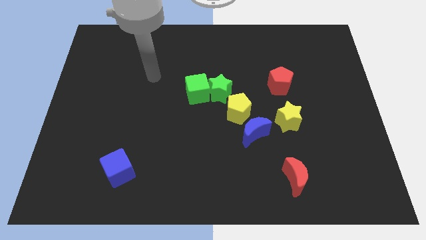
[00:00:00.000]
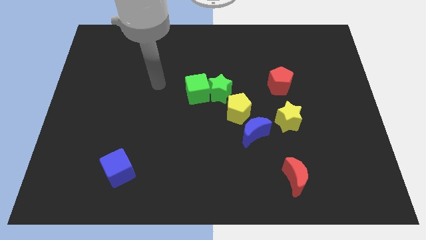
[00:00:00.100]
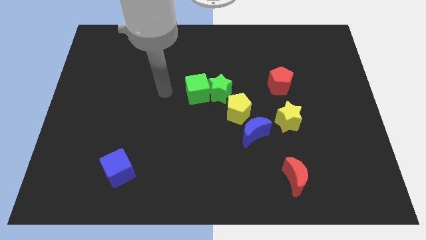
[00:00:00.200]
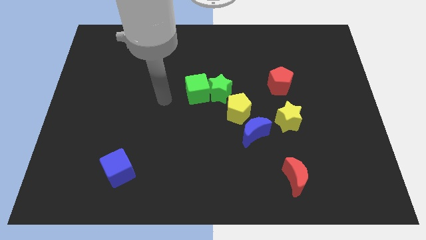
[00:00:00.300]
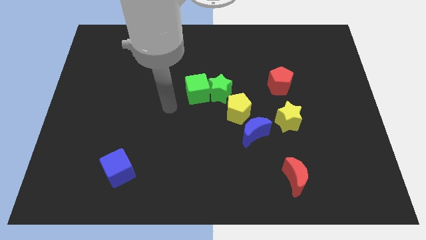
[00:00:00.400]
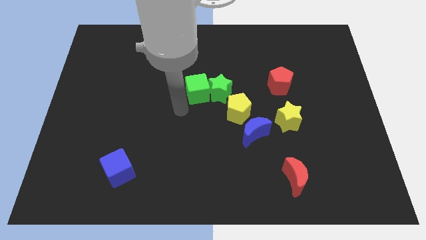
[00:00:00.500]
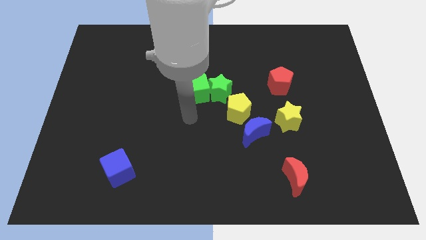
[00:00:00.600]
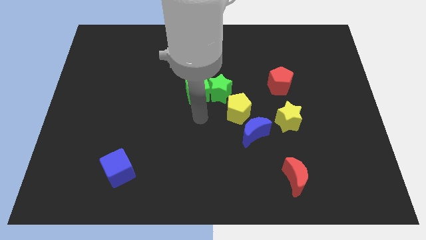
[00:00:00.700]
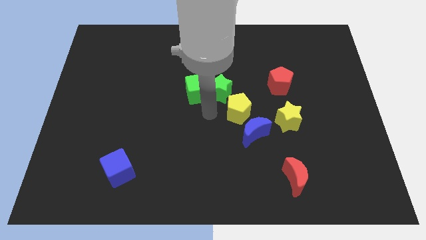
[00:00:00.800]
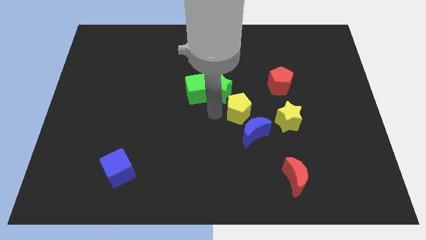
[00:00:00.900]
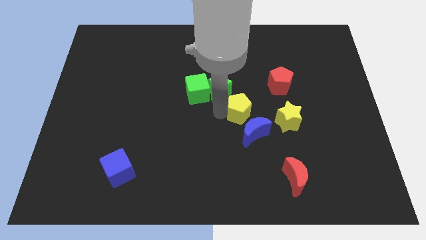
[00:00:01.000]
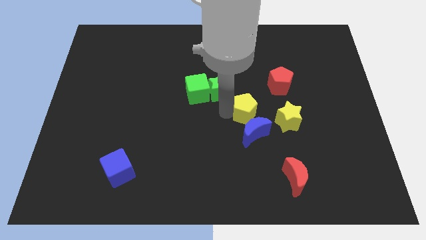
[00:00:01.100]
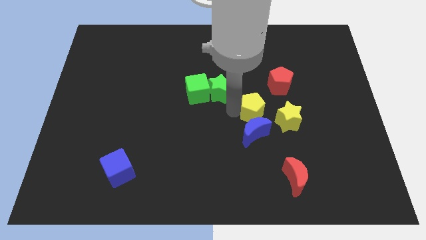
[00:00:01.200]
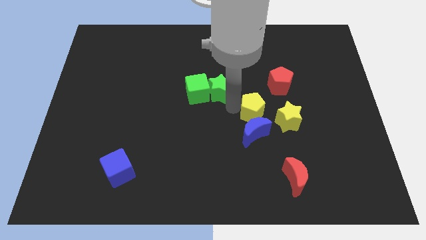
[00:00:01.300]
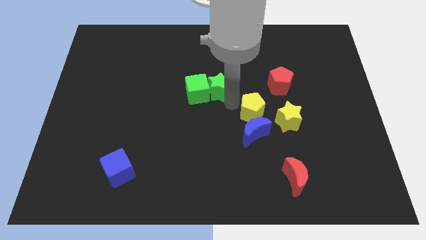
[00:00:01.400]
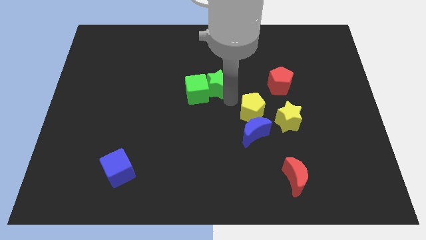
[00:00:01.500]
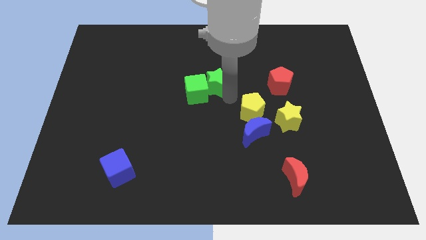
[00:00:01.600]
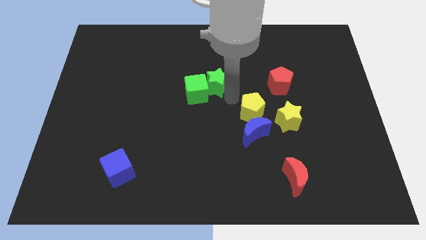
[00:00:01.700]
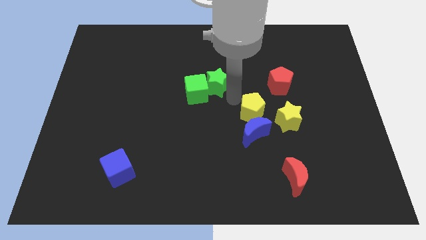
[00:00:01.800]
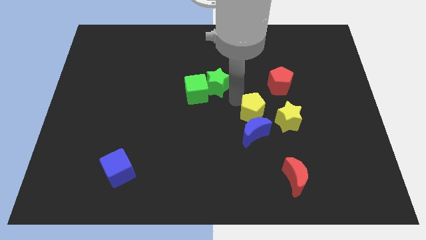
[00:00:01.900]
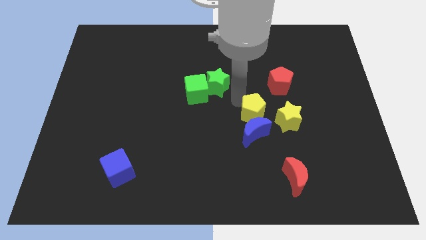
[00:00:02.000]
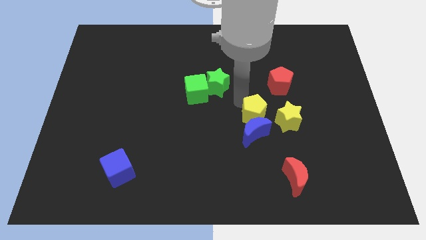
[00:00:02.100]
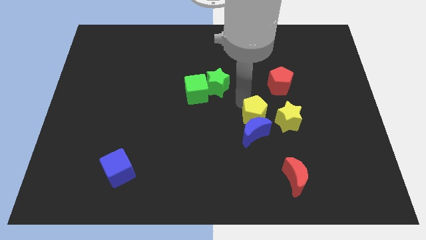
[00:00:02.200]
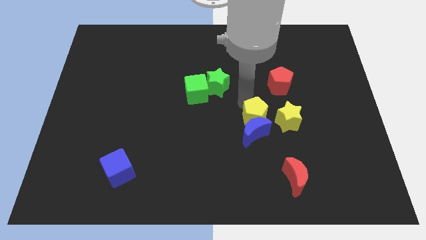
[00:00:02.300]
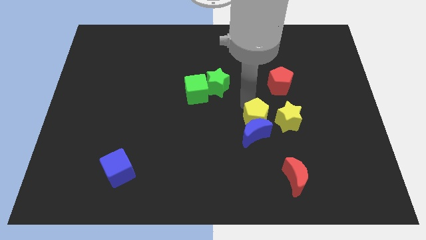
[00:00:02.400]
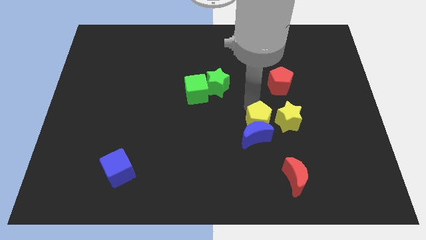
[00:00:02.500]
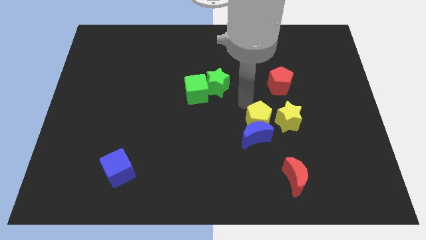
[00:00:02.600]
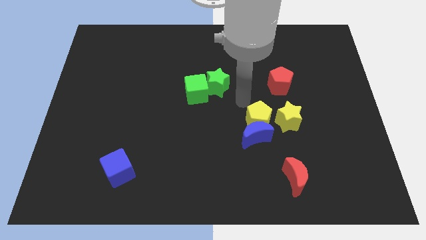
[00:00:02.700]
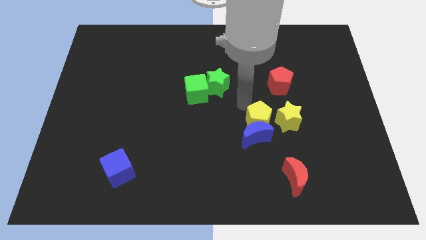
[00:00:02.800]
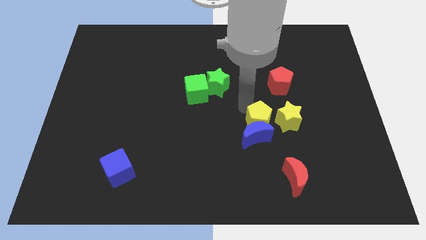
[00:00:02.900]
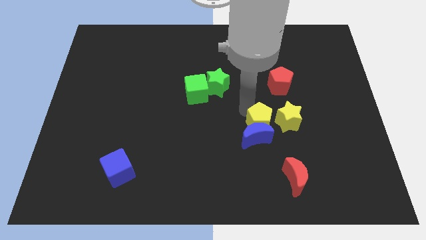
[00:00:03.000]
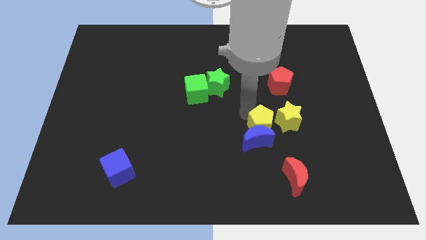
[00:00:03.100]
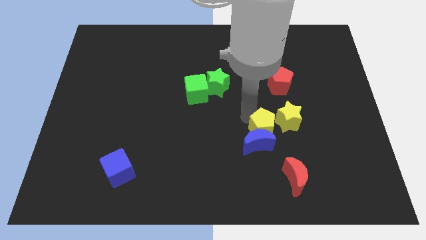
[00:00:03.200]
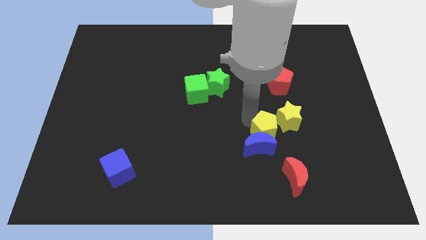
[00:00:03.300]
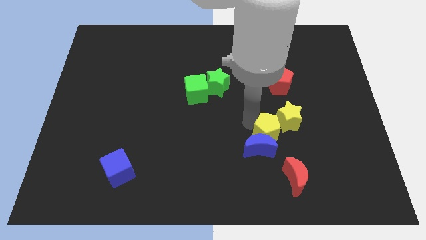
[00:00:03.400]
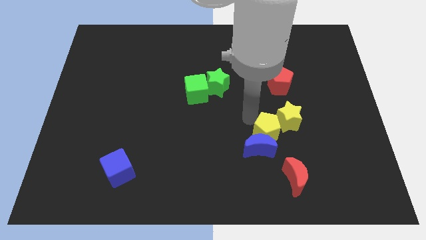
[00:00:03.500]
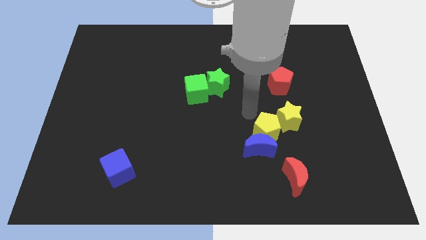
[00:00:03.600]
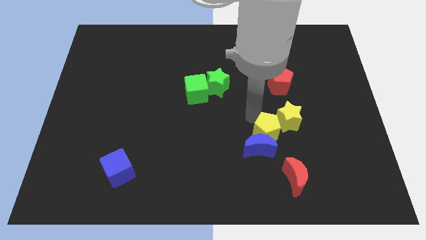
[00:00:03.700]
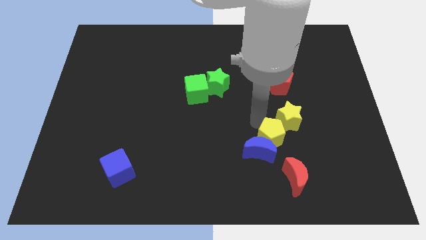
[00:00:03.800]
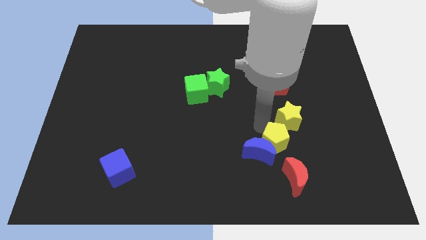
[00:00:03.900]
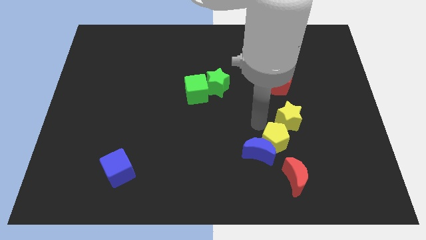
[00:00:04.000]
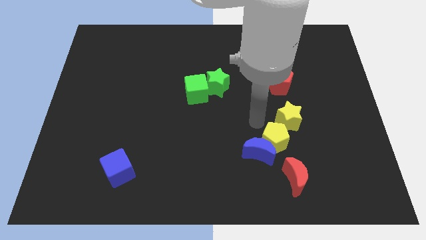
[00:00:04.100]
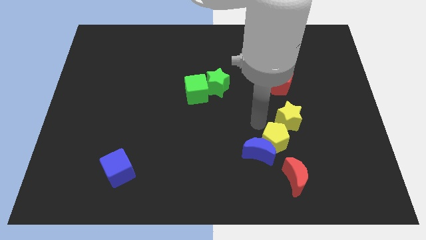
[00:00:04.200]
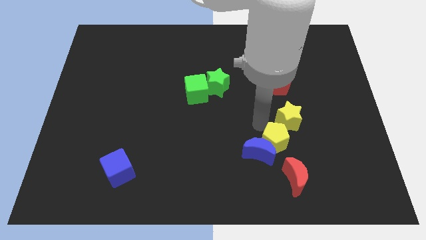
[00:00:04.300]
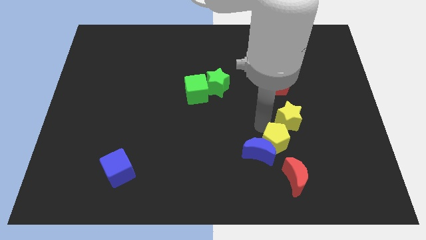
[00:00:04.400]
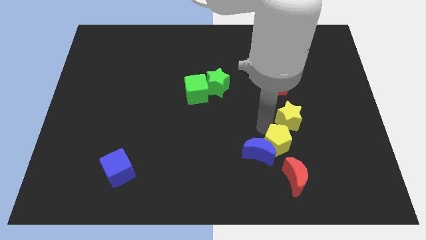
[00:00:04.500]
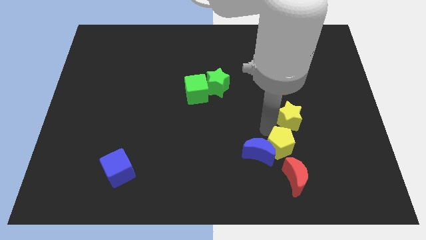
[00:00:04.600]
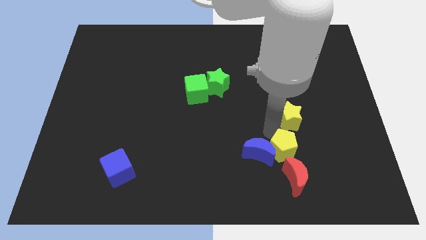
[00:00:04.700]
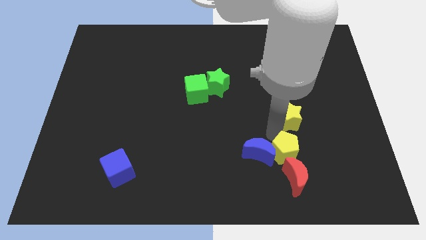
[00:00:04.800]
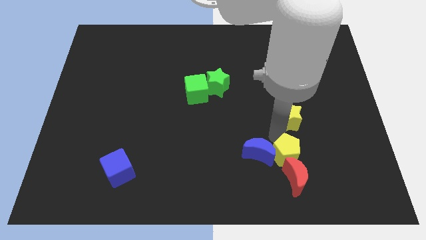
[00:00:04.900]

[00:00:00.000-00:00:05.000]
slide the yellow pentagon to the red moon

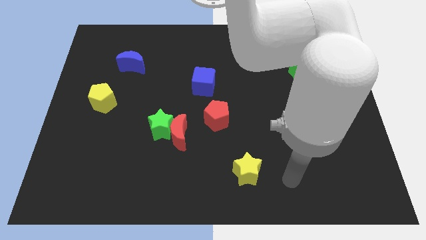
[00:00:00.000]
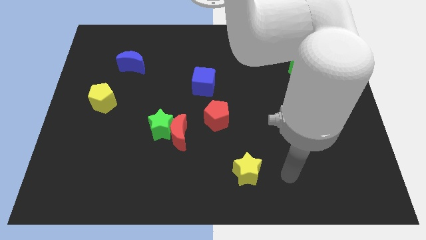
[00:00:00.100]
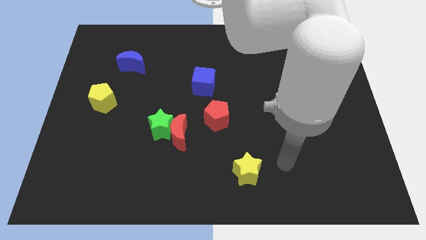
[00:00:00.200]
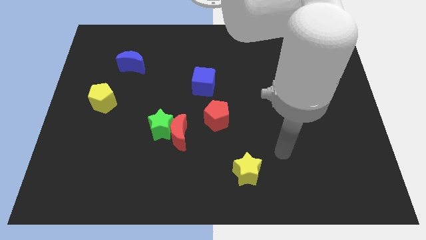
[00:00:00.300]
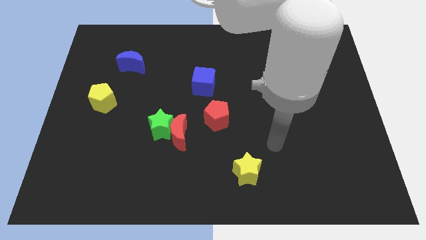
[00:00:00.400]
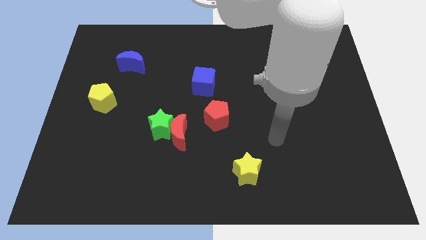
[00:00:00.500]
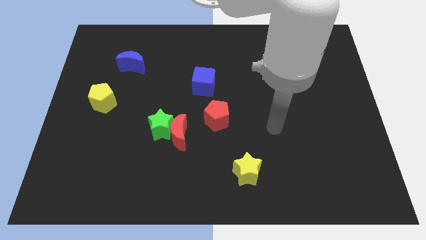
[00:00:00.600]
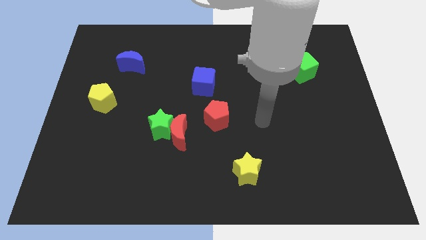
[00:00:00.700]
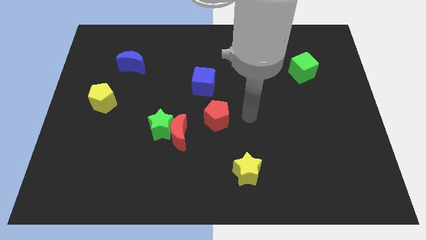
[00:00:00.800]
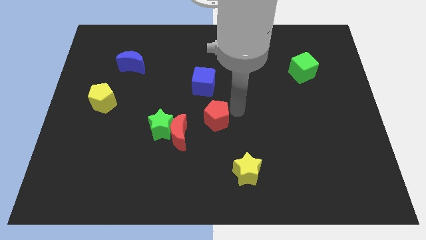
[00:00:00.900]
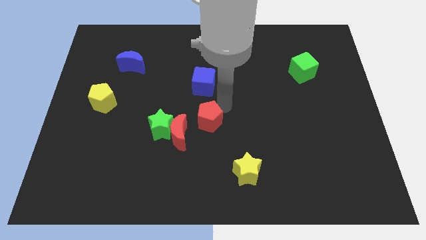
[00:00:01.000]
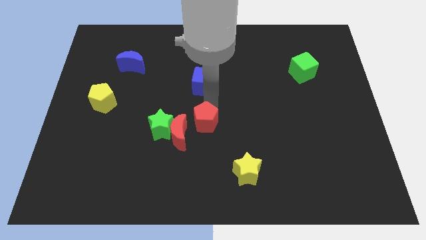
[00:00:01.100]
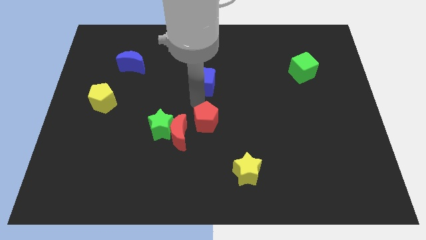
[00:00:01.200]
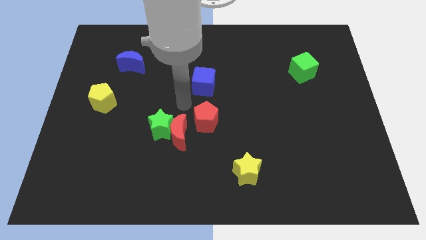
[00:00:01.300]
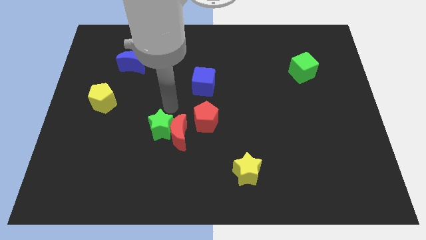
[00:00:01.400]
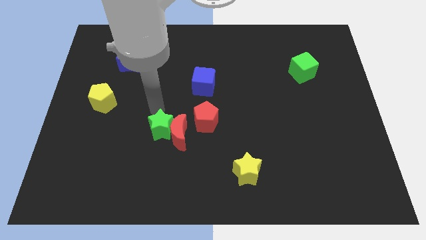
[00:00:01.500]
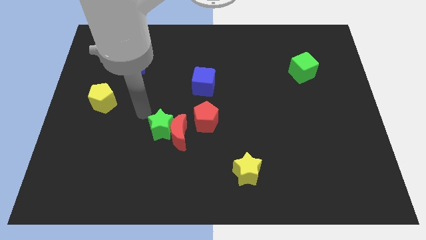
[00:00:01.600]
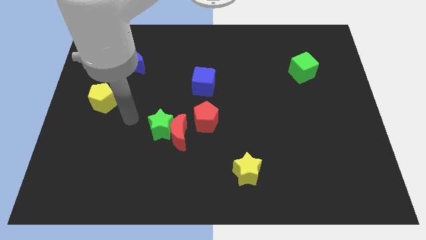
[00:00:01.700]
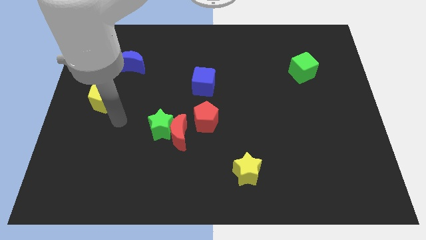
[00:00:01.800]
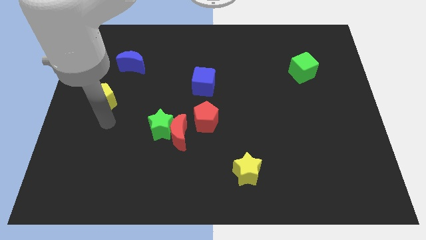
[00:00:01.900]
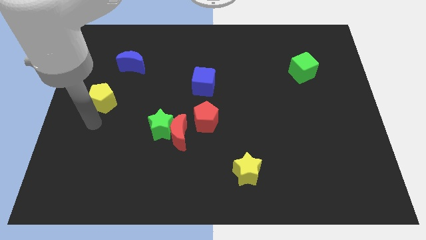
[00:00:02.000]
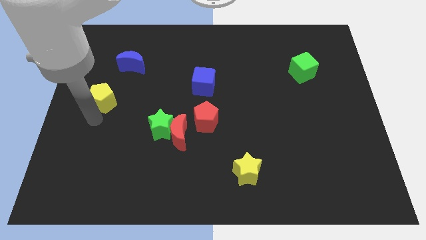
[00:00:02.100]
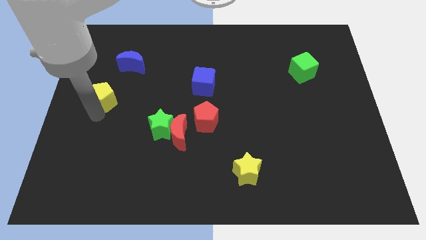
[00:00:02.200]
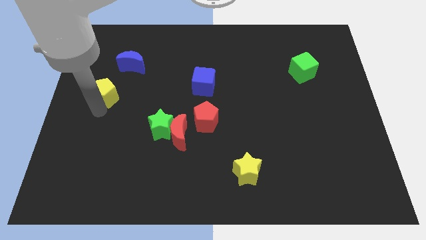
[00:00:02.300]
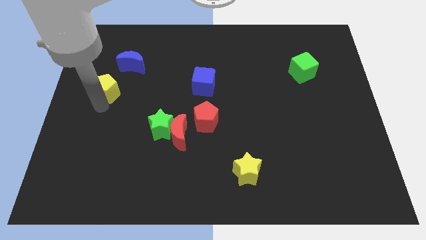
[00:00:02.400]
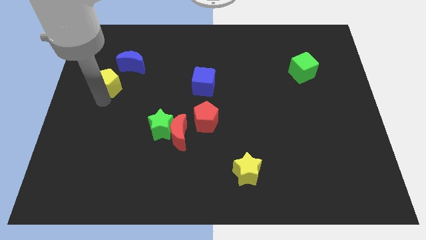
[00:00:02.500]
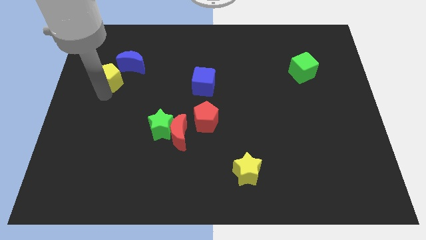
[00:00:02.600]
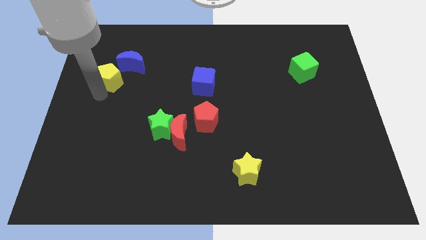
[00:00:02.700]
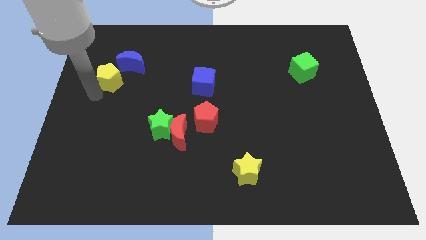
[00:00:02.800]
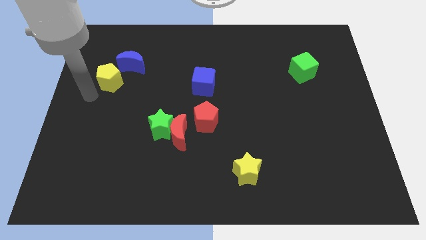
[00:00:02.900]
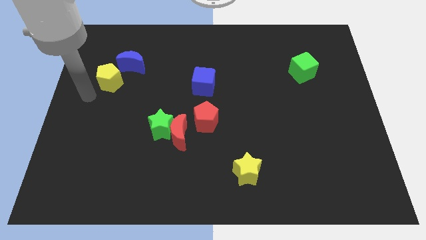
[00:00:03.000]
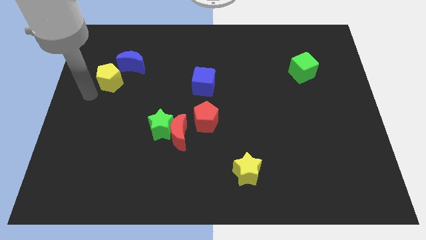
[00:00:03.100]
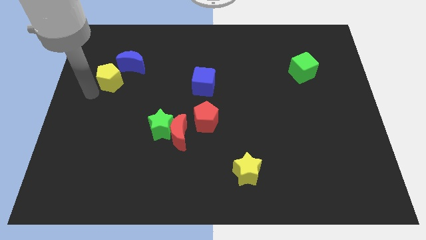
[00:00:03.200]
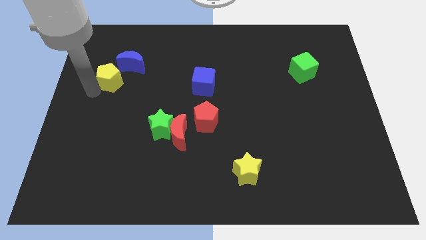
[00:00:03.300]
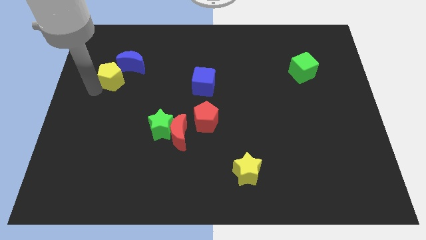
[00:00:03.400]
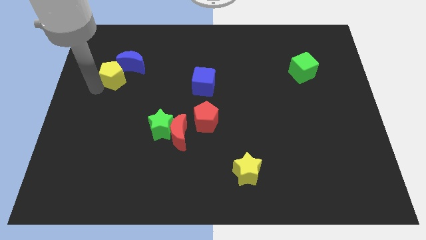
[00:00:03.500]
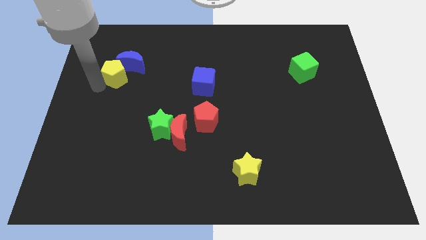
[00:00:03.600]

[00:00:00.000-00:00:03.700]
push the yellow pentagon close to the blue moon
